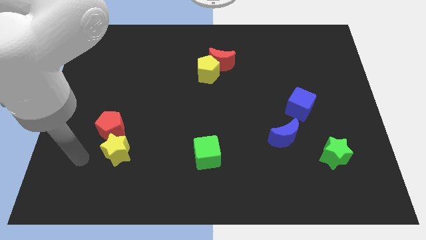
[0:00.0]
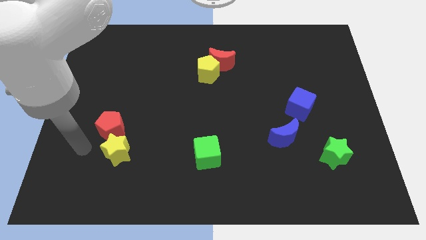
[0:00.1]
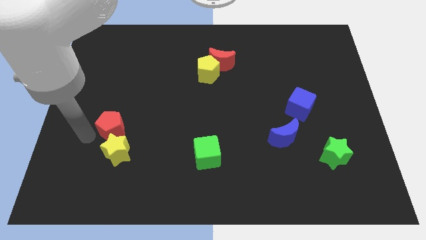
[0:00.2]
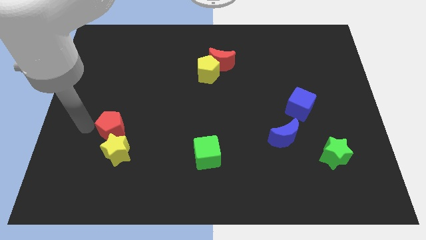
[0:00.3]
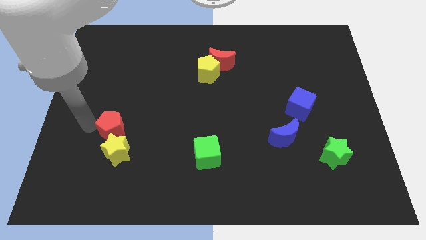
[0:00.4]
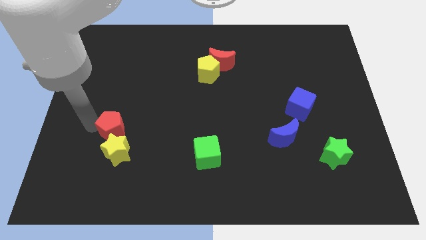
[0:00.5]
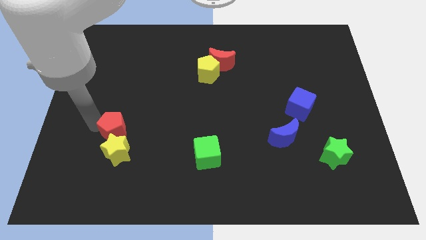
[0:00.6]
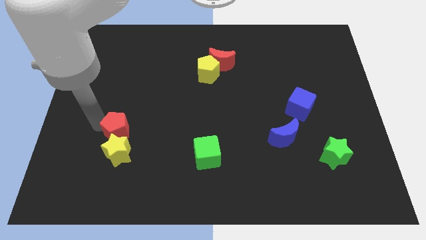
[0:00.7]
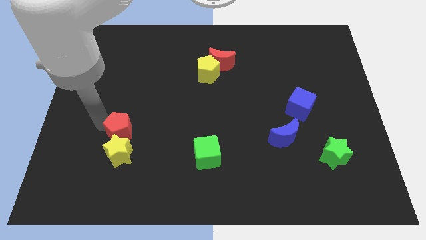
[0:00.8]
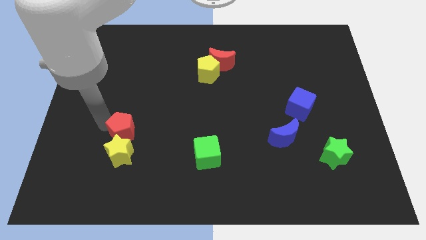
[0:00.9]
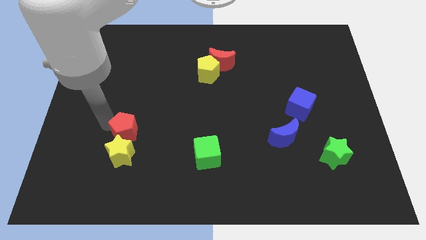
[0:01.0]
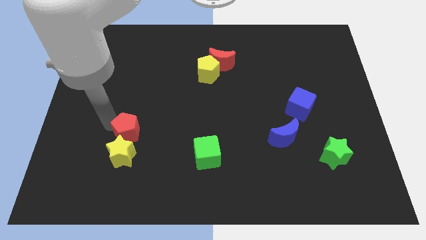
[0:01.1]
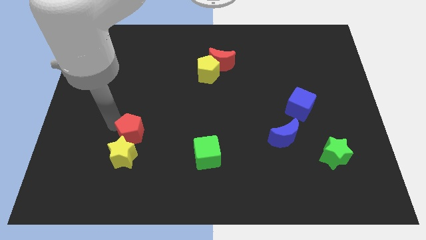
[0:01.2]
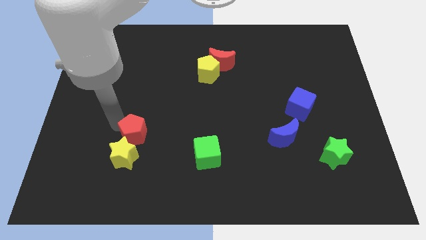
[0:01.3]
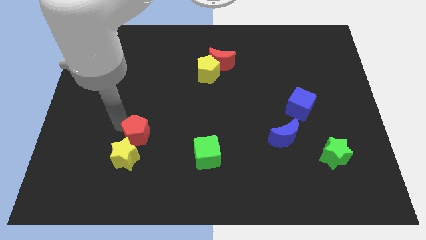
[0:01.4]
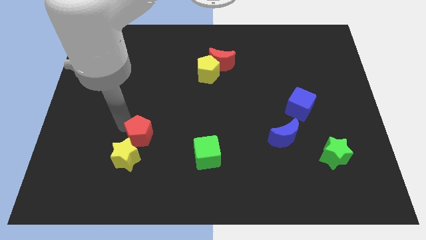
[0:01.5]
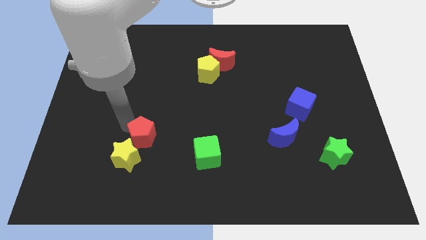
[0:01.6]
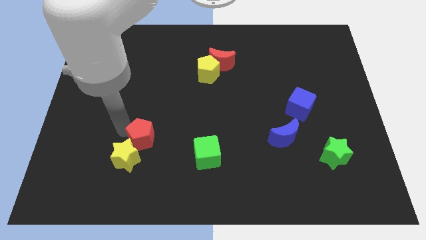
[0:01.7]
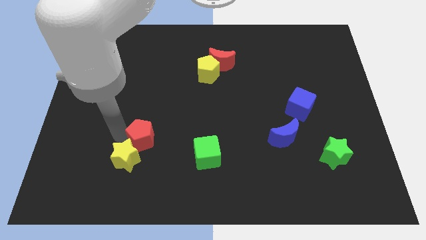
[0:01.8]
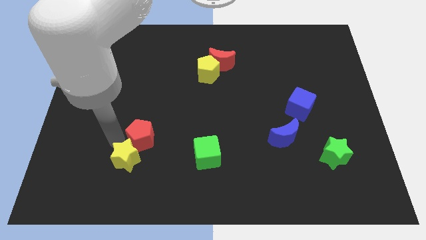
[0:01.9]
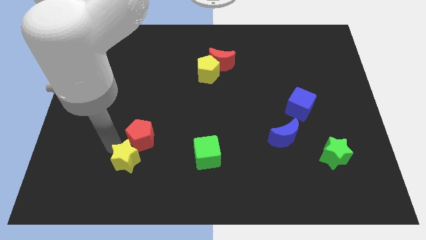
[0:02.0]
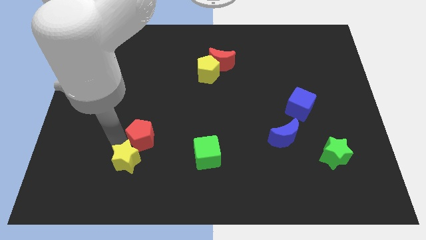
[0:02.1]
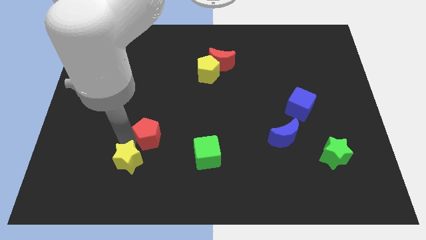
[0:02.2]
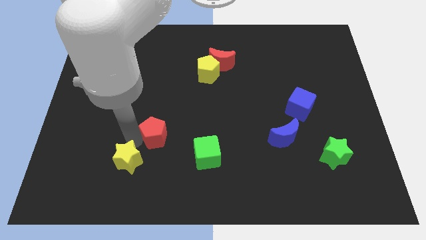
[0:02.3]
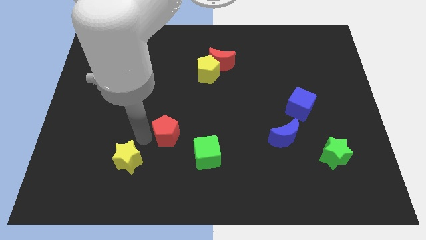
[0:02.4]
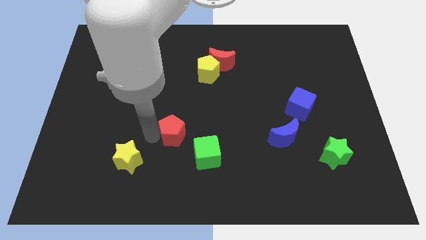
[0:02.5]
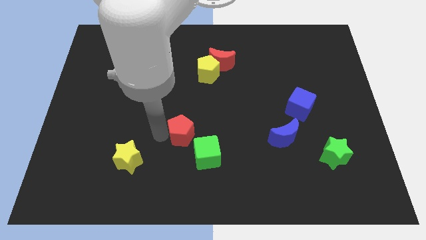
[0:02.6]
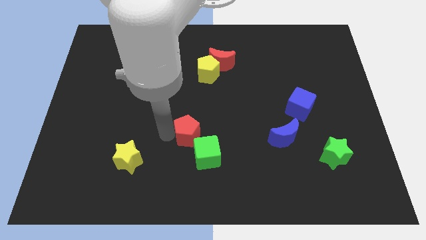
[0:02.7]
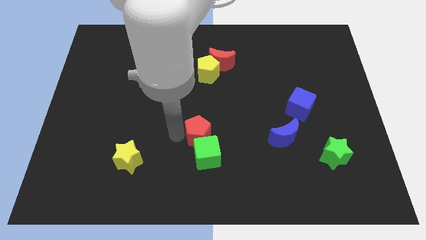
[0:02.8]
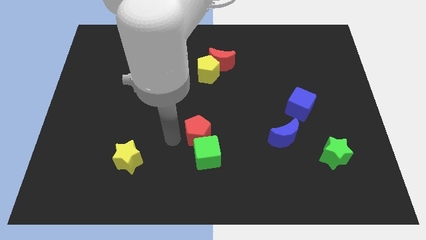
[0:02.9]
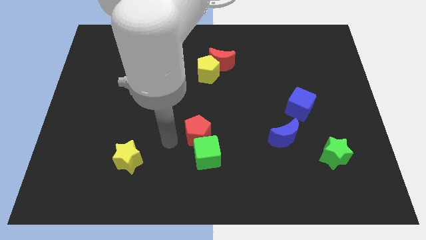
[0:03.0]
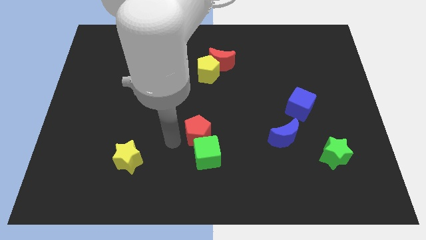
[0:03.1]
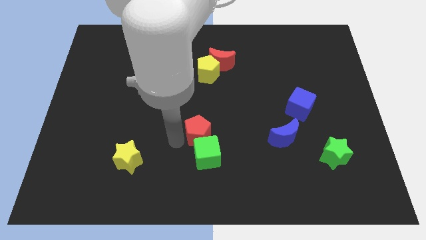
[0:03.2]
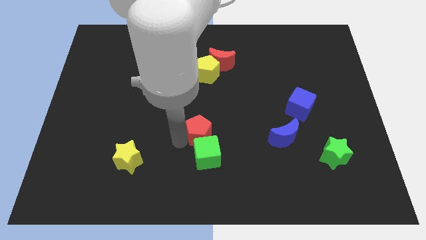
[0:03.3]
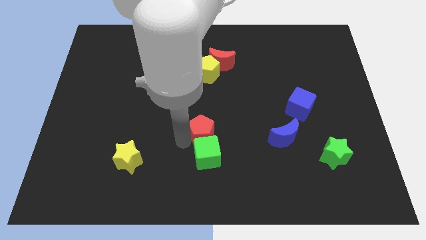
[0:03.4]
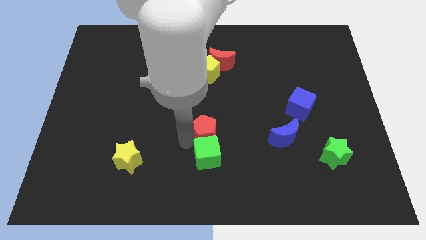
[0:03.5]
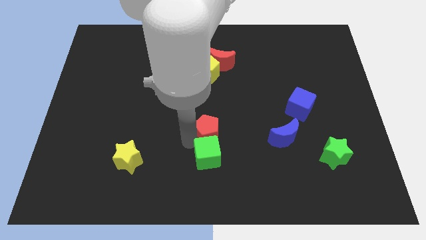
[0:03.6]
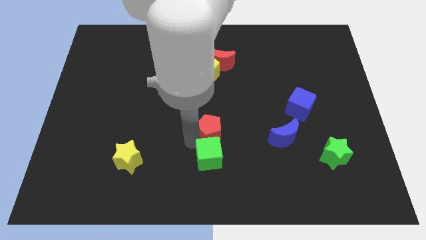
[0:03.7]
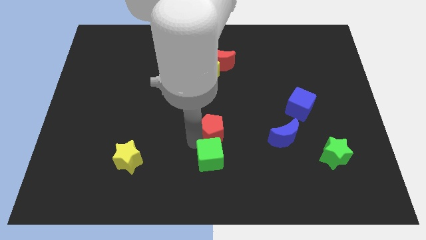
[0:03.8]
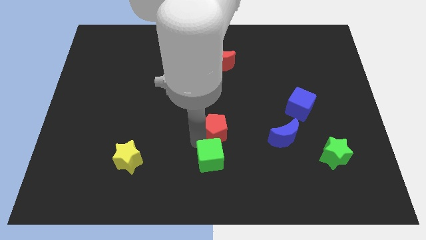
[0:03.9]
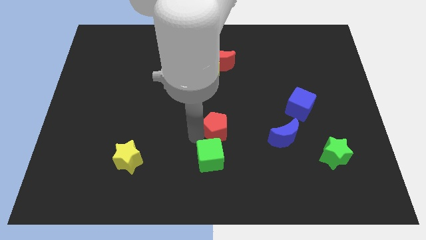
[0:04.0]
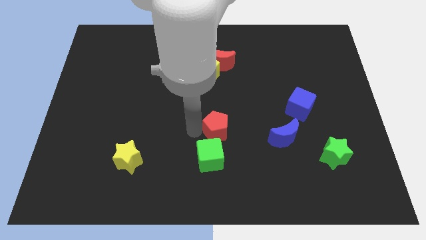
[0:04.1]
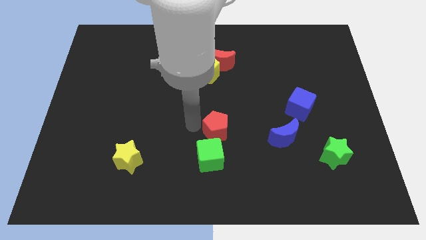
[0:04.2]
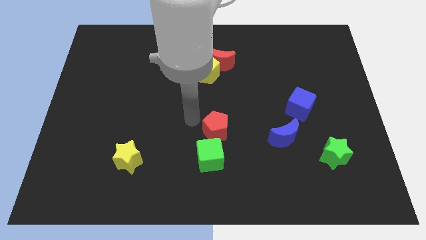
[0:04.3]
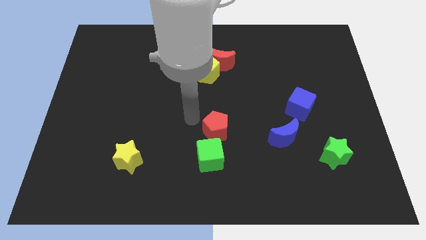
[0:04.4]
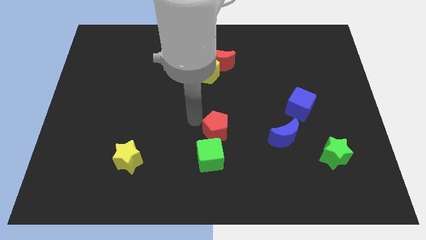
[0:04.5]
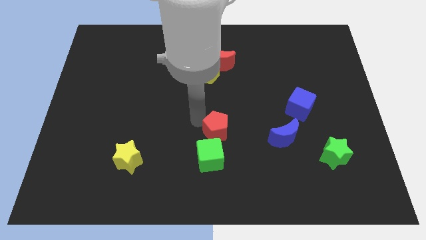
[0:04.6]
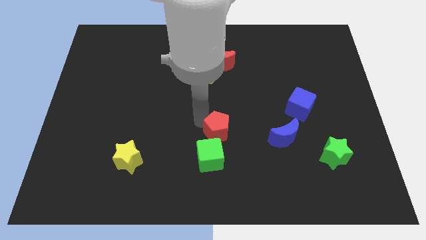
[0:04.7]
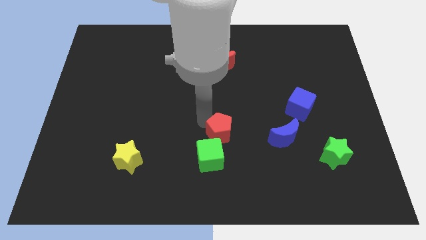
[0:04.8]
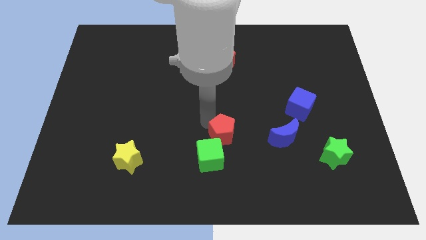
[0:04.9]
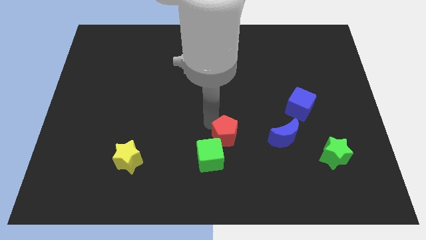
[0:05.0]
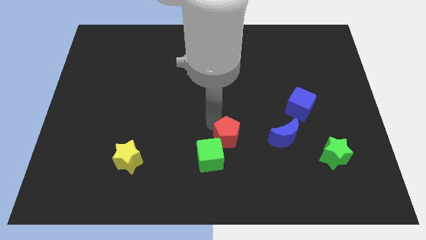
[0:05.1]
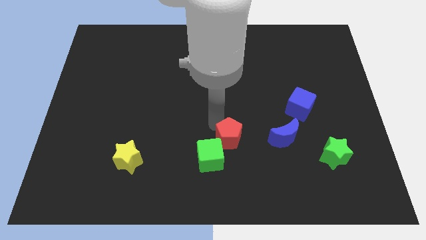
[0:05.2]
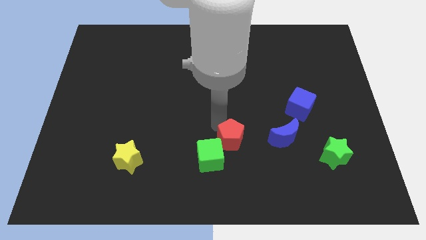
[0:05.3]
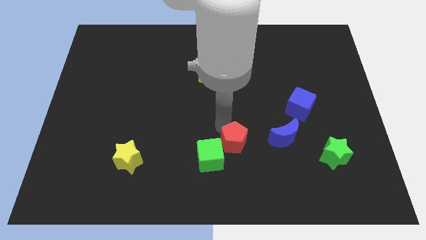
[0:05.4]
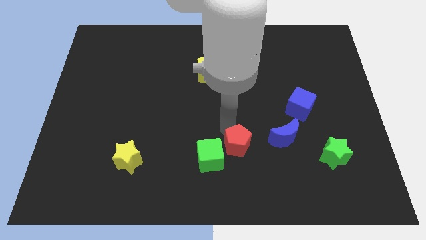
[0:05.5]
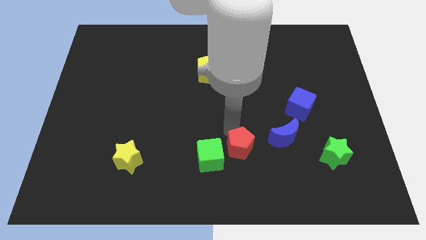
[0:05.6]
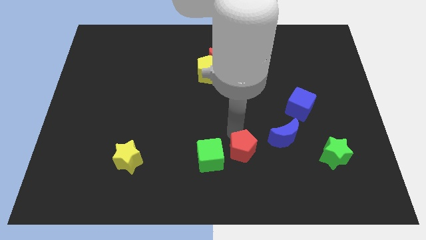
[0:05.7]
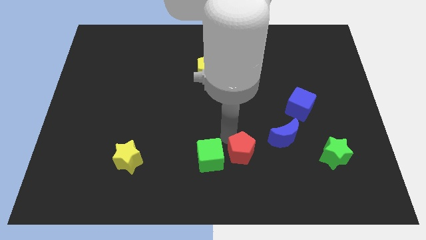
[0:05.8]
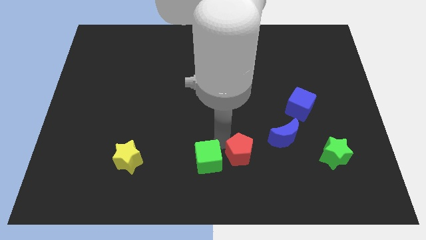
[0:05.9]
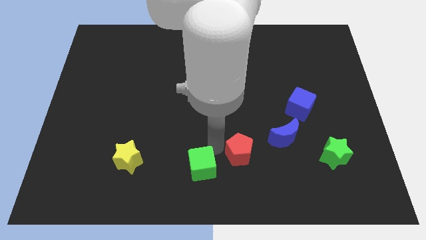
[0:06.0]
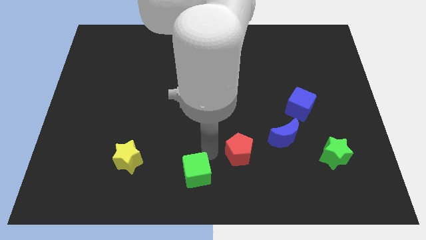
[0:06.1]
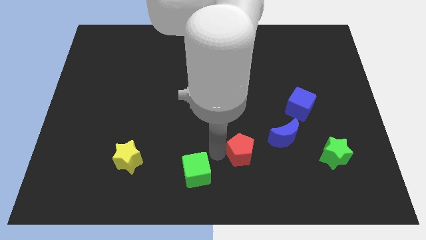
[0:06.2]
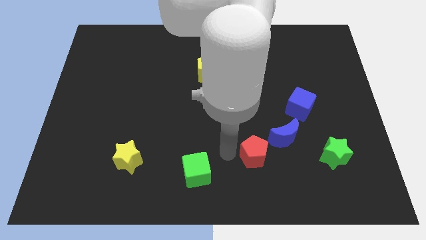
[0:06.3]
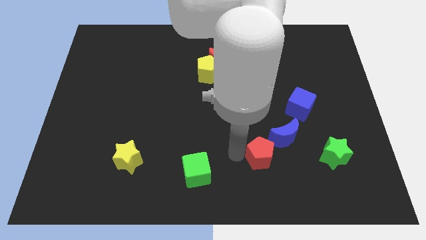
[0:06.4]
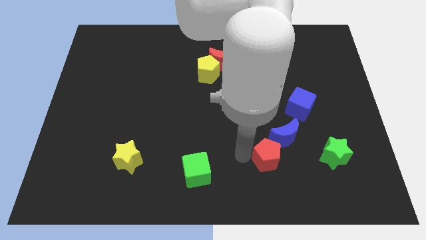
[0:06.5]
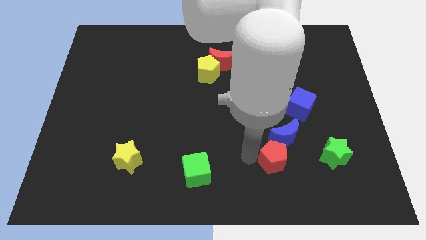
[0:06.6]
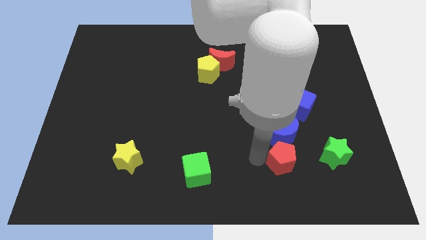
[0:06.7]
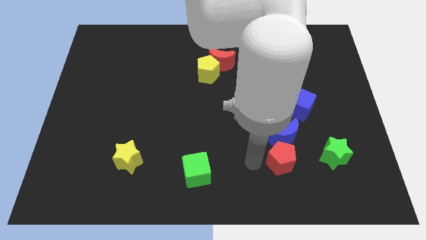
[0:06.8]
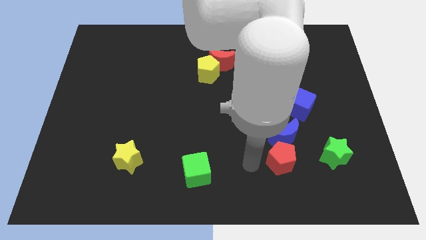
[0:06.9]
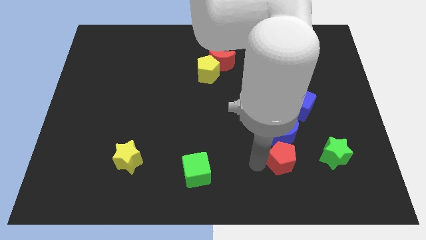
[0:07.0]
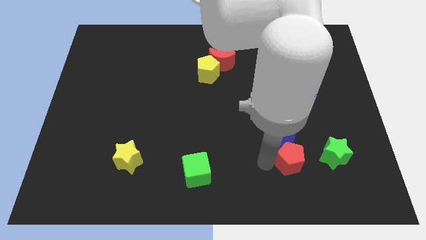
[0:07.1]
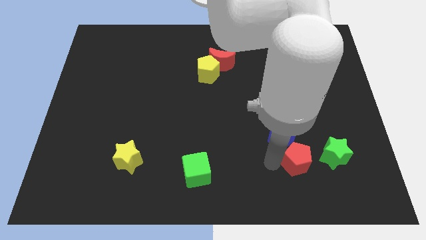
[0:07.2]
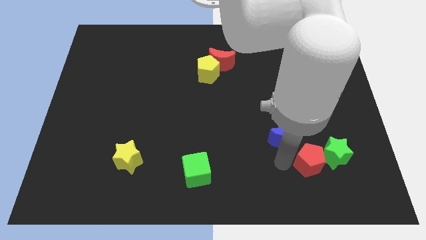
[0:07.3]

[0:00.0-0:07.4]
slide the red pentagon next to the green star
